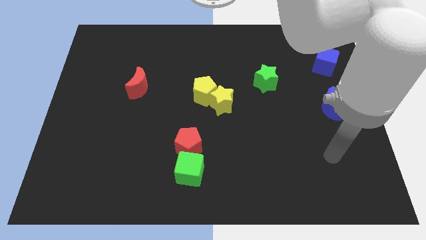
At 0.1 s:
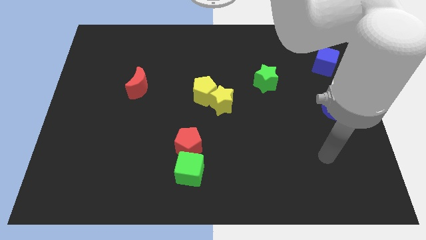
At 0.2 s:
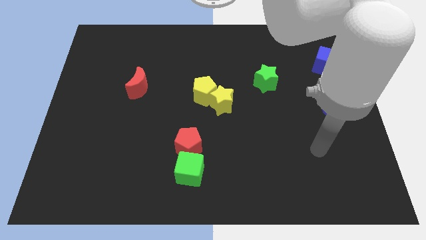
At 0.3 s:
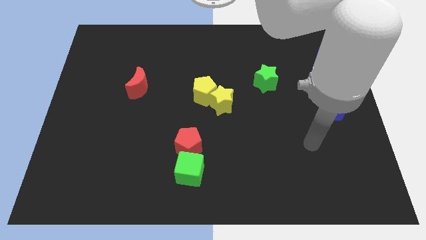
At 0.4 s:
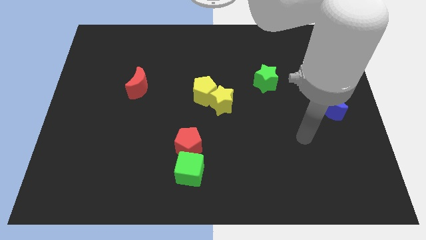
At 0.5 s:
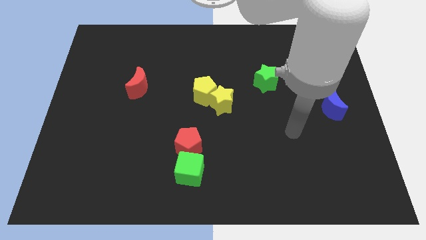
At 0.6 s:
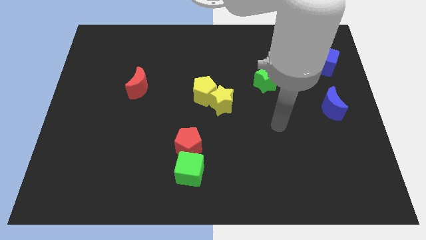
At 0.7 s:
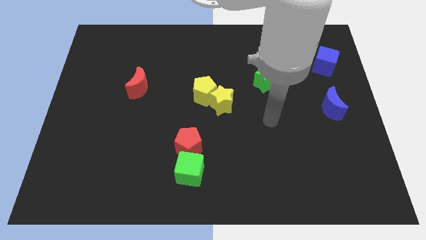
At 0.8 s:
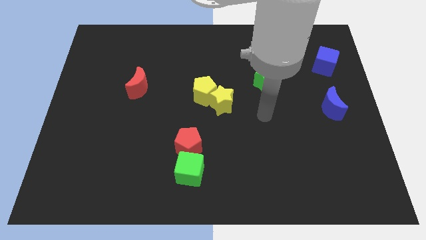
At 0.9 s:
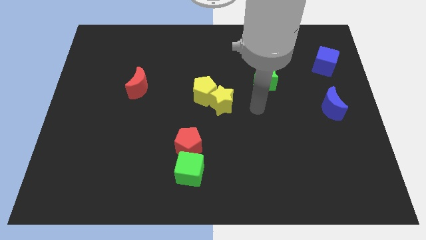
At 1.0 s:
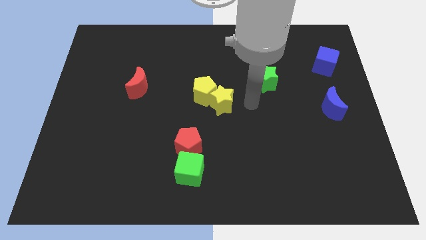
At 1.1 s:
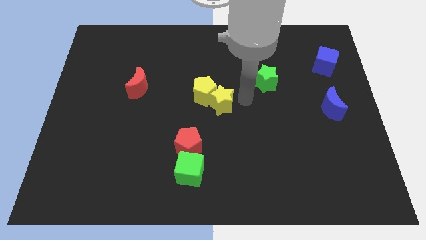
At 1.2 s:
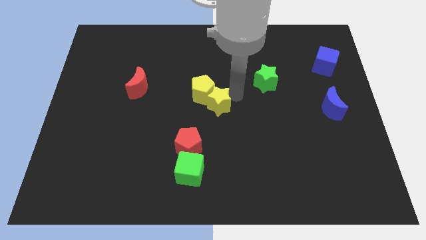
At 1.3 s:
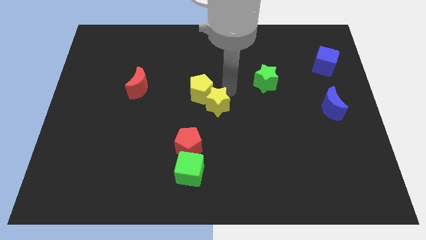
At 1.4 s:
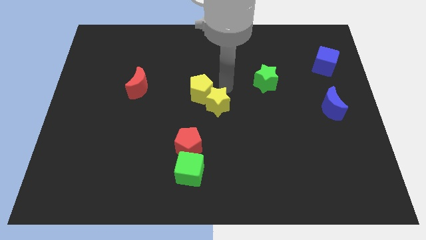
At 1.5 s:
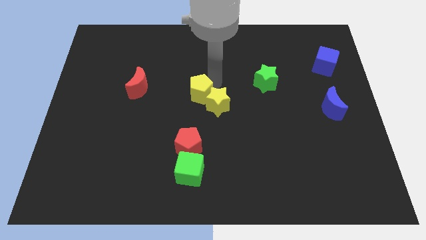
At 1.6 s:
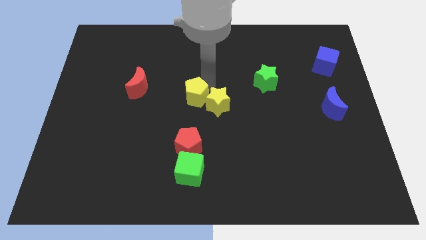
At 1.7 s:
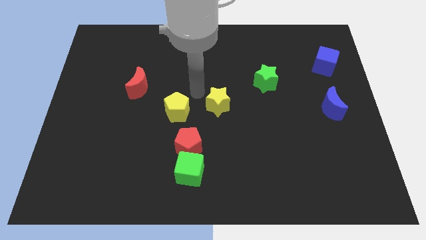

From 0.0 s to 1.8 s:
move the yellow star away from the yellow pentagon

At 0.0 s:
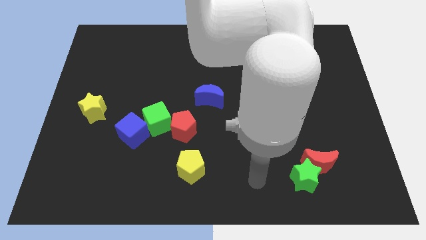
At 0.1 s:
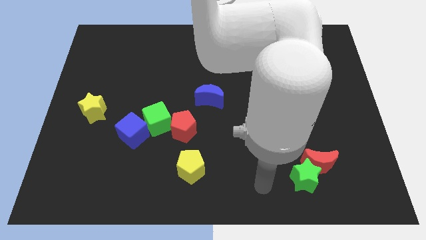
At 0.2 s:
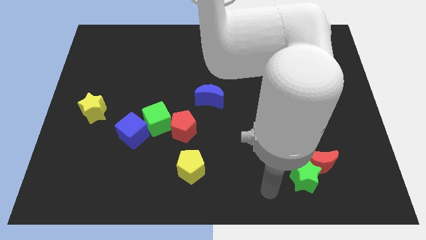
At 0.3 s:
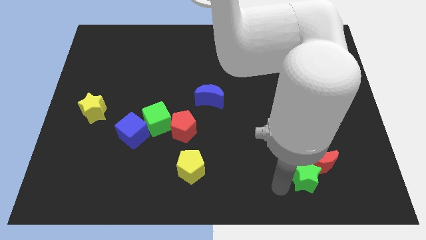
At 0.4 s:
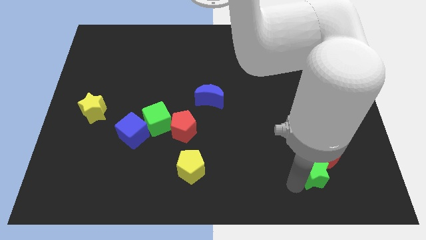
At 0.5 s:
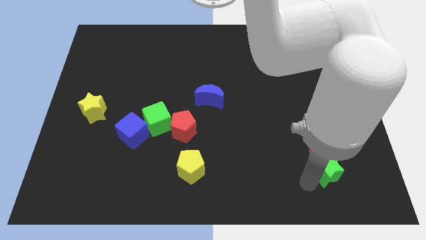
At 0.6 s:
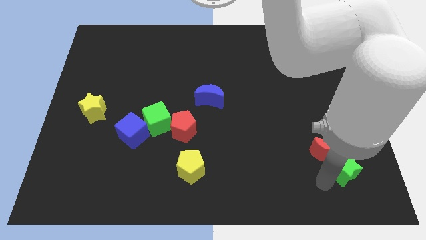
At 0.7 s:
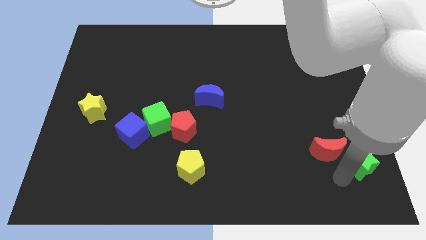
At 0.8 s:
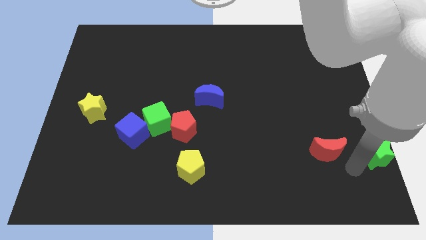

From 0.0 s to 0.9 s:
move the red moon away from the green star

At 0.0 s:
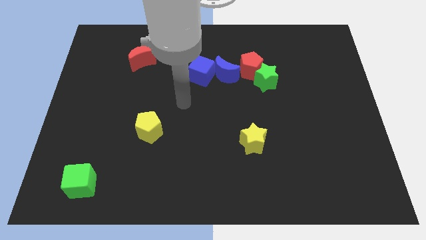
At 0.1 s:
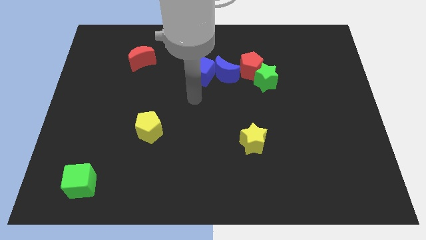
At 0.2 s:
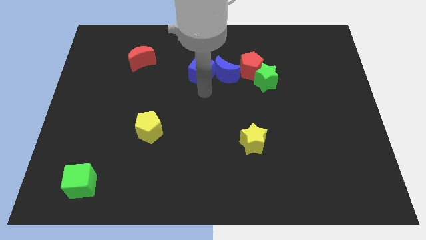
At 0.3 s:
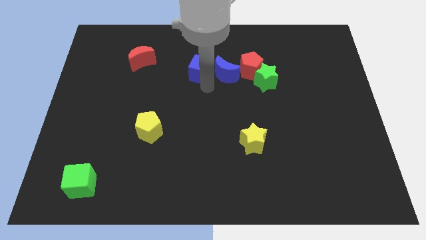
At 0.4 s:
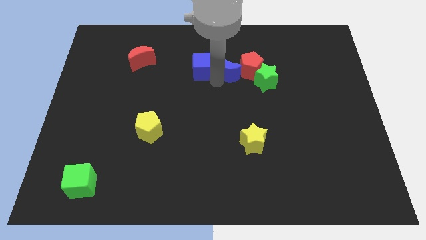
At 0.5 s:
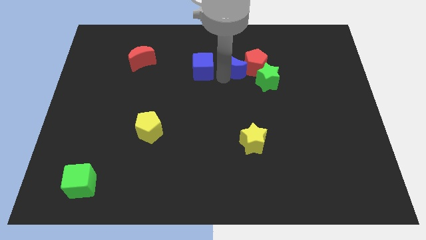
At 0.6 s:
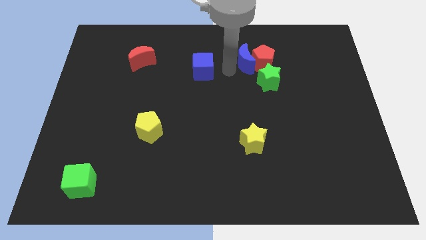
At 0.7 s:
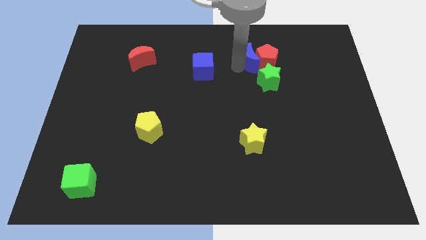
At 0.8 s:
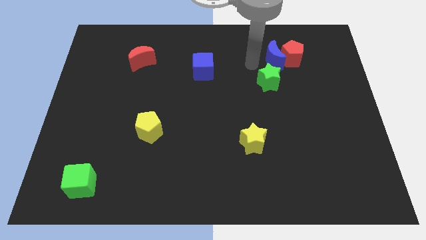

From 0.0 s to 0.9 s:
pull the green star apart from the red pentagon

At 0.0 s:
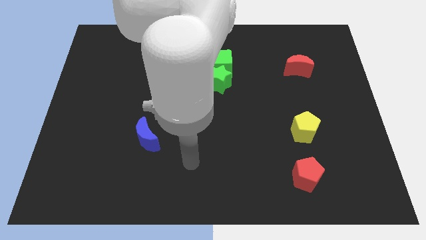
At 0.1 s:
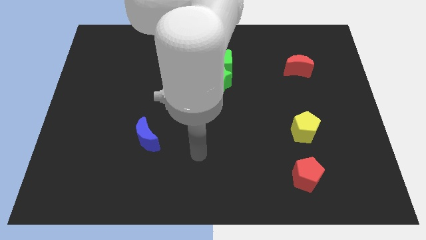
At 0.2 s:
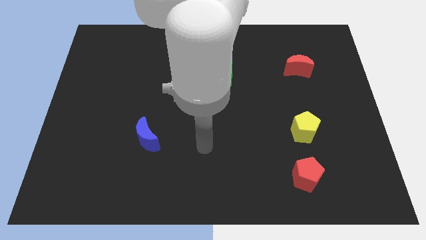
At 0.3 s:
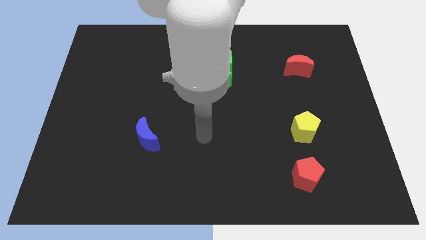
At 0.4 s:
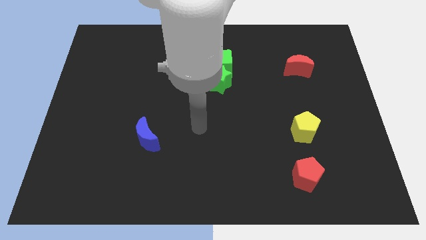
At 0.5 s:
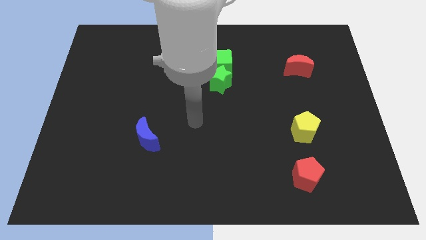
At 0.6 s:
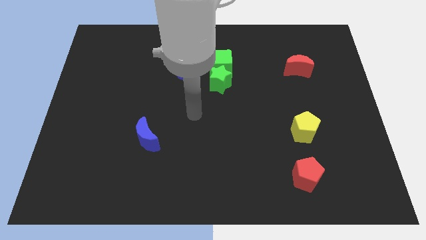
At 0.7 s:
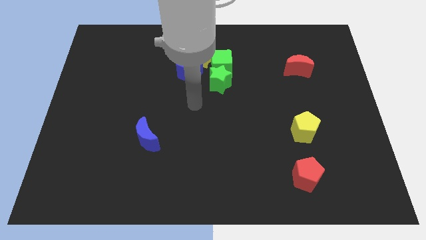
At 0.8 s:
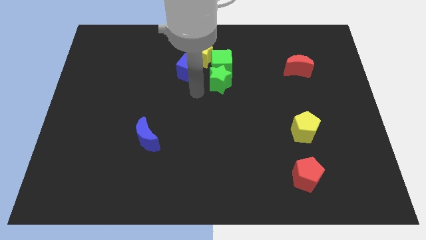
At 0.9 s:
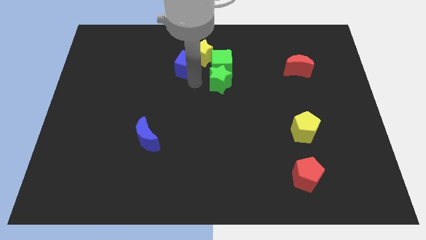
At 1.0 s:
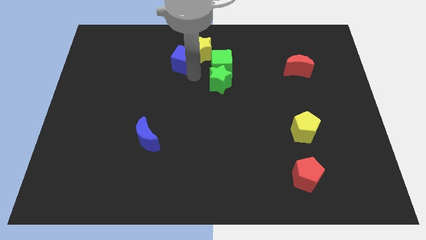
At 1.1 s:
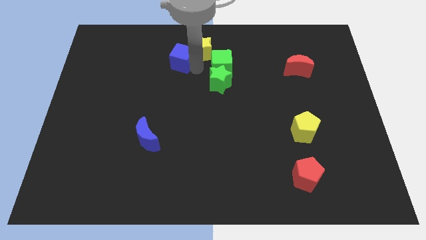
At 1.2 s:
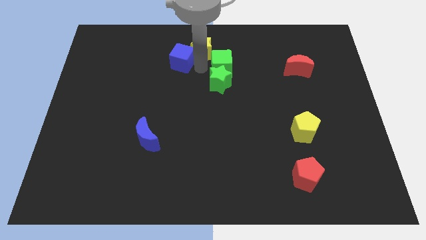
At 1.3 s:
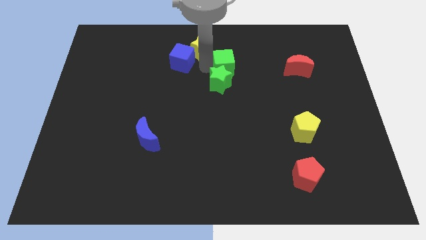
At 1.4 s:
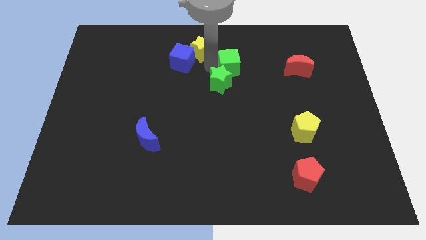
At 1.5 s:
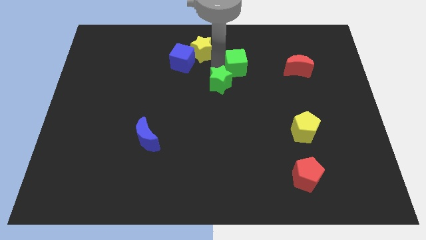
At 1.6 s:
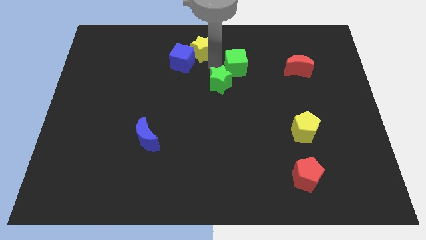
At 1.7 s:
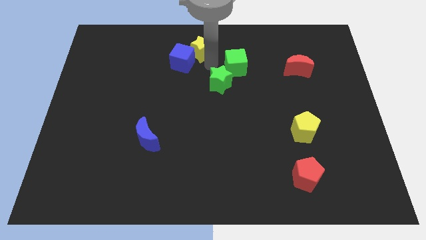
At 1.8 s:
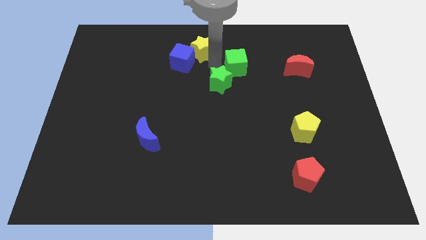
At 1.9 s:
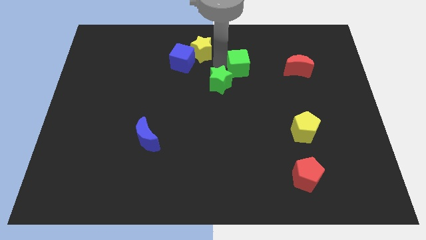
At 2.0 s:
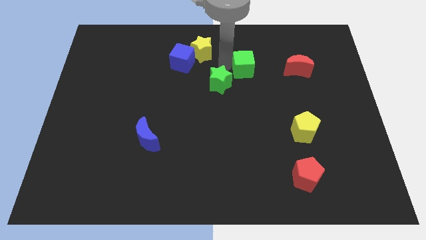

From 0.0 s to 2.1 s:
pull the green cube apart from the green star, yellow star, and blue cube

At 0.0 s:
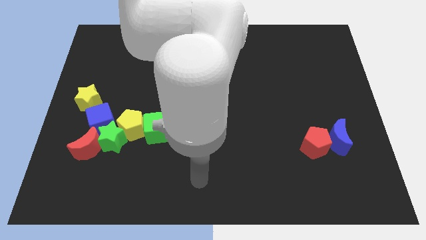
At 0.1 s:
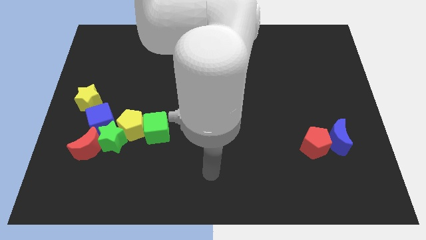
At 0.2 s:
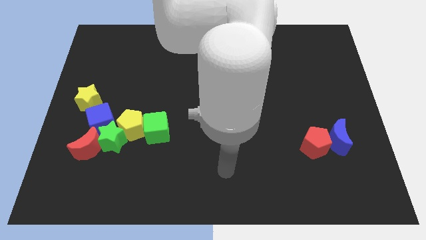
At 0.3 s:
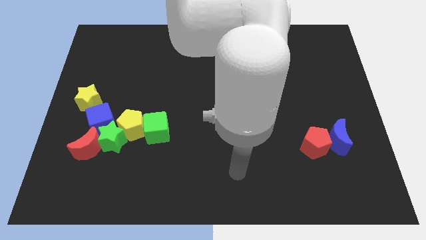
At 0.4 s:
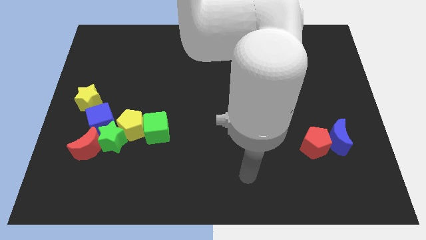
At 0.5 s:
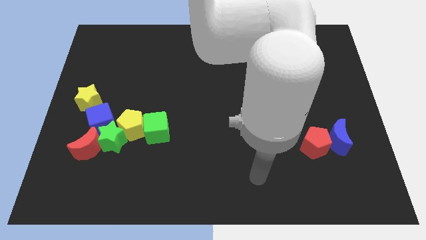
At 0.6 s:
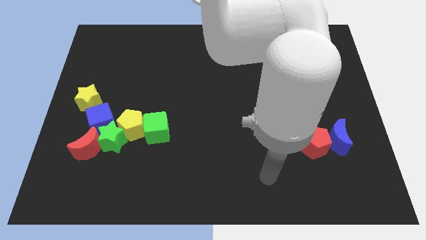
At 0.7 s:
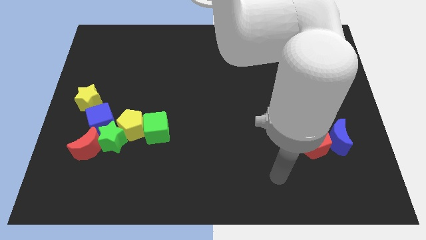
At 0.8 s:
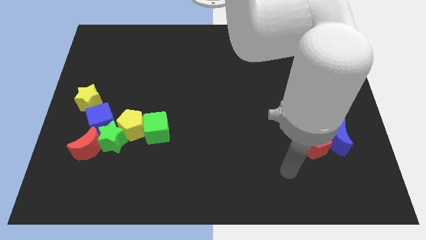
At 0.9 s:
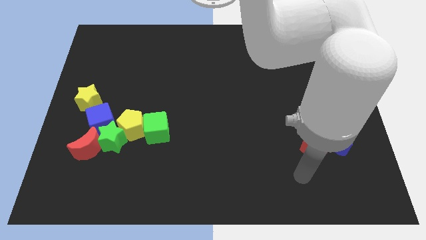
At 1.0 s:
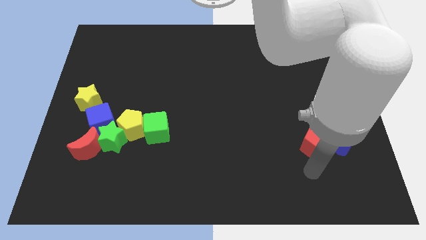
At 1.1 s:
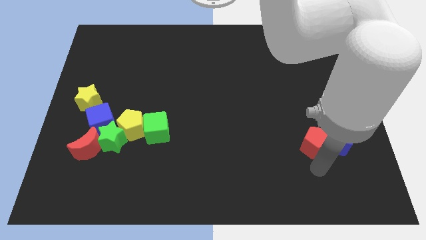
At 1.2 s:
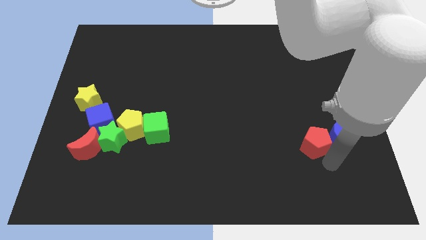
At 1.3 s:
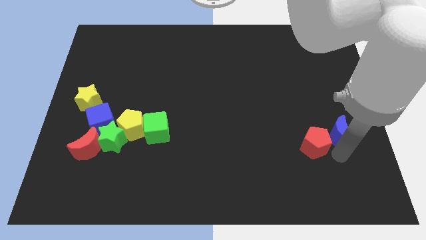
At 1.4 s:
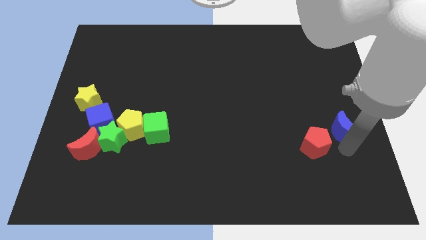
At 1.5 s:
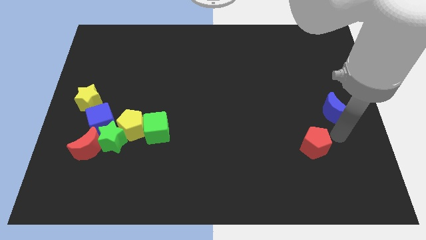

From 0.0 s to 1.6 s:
separate the red pentagon from the blue moon

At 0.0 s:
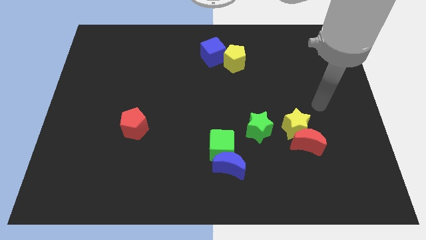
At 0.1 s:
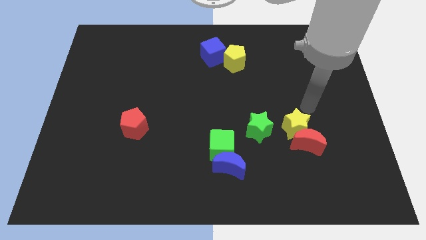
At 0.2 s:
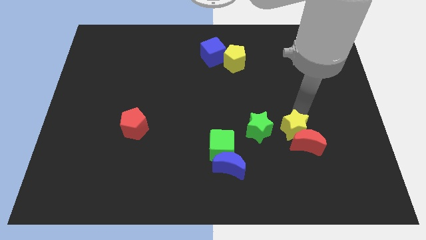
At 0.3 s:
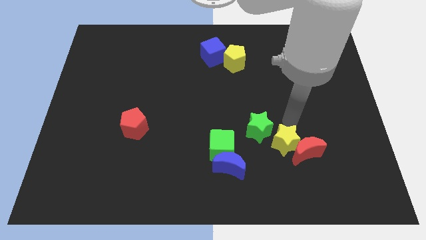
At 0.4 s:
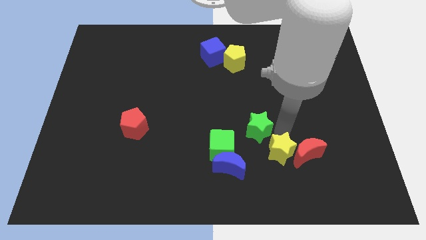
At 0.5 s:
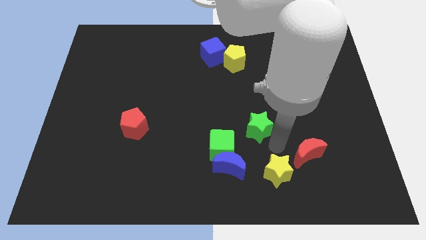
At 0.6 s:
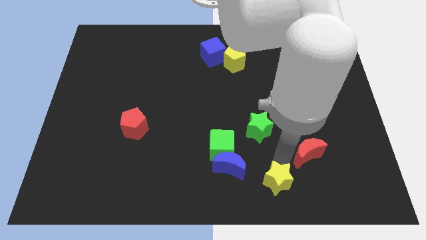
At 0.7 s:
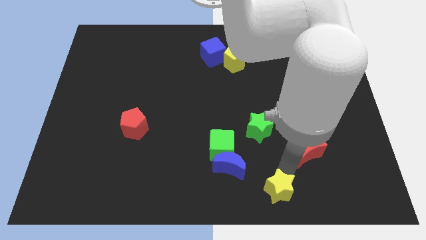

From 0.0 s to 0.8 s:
move the red moon away from the yellow star

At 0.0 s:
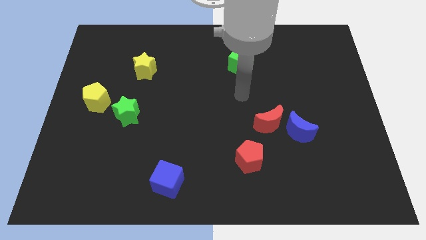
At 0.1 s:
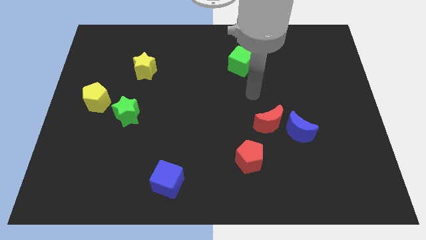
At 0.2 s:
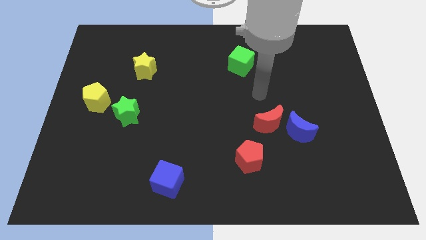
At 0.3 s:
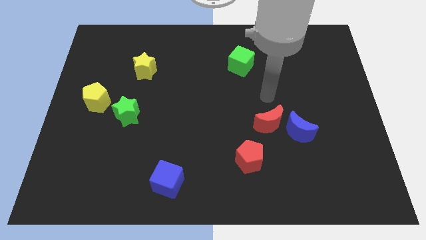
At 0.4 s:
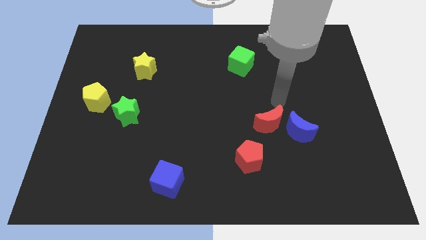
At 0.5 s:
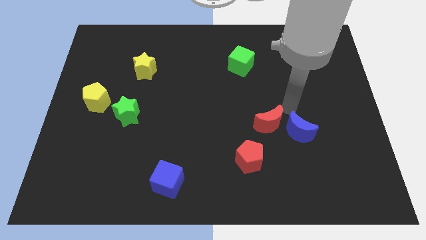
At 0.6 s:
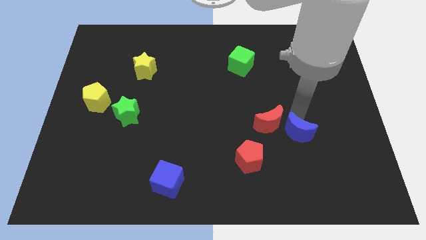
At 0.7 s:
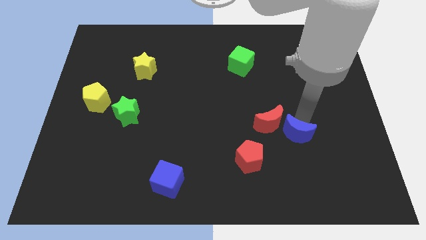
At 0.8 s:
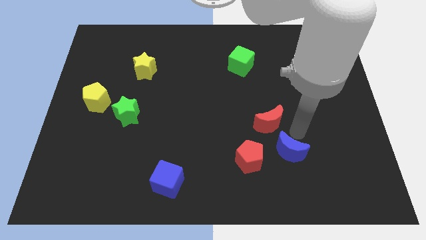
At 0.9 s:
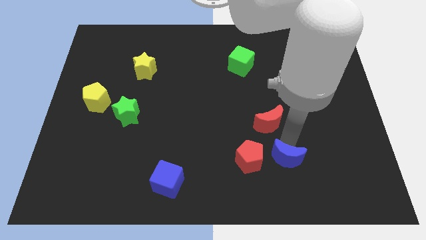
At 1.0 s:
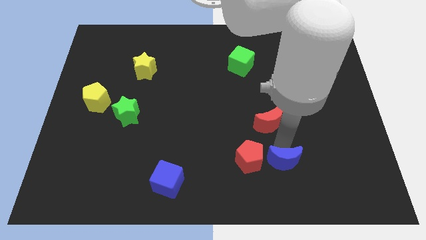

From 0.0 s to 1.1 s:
move the red moon away from the blue moon
